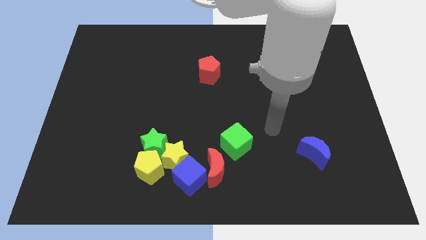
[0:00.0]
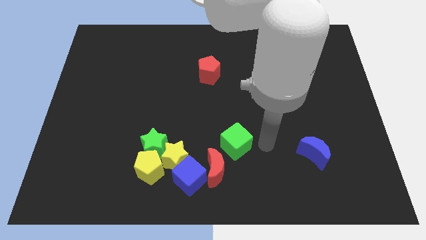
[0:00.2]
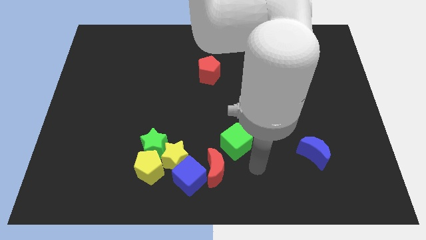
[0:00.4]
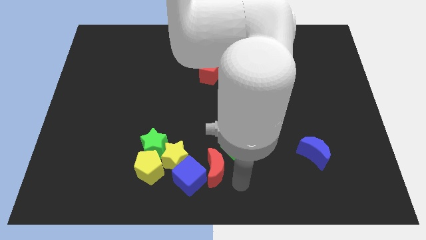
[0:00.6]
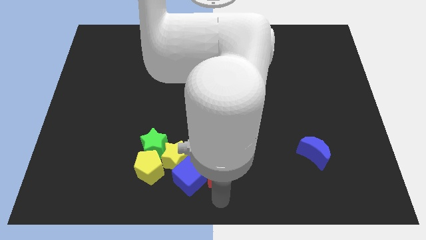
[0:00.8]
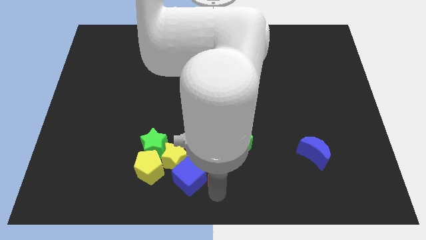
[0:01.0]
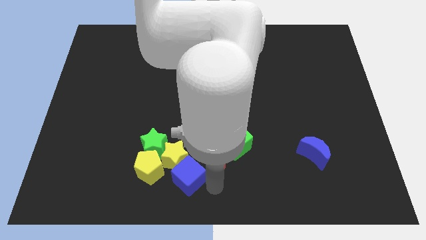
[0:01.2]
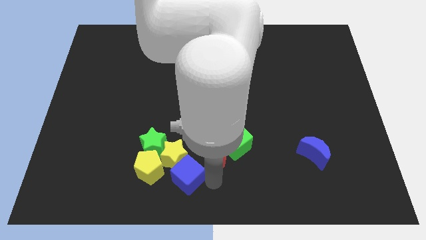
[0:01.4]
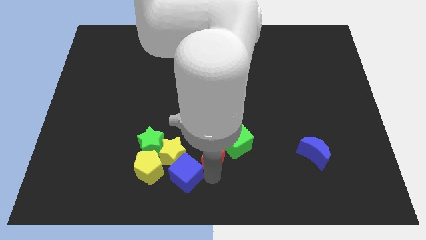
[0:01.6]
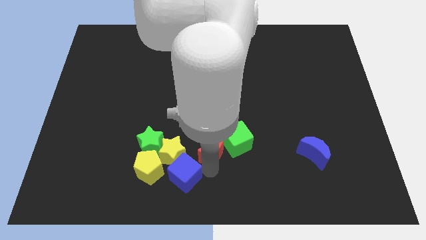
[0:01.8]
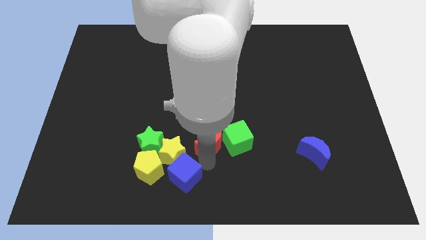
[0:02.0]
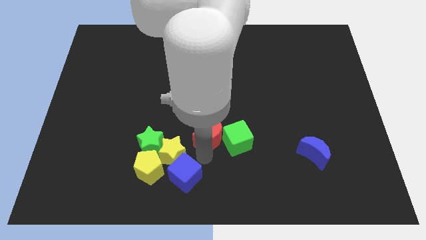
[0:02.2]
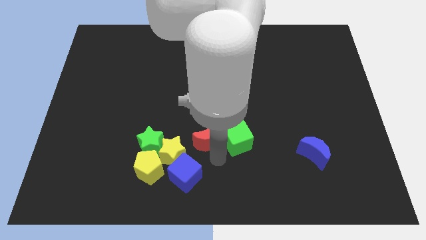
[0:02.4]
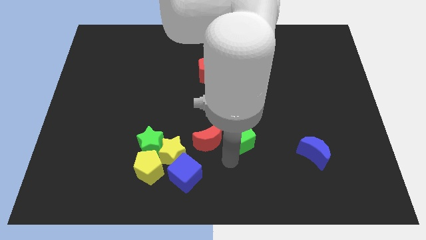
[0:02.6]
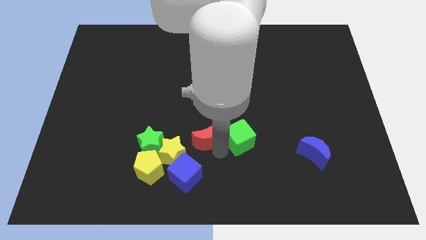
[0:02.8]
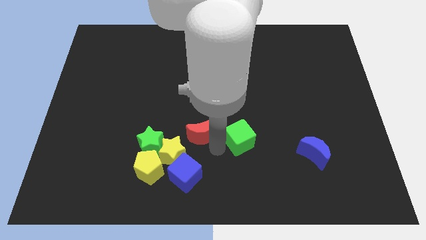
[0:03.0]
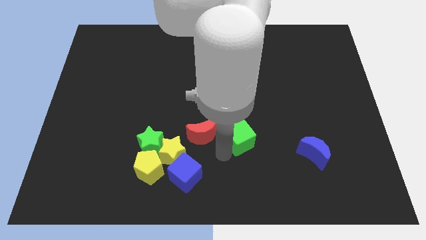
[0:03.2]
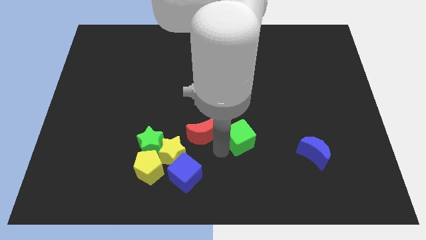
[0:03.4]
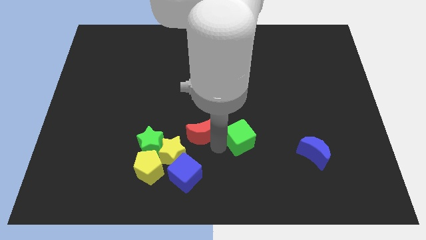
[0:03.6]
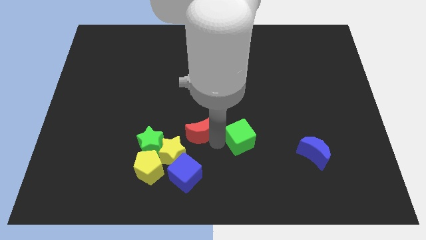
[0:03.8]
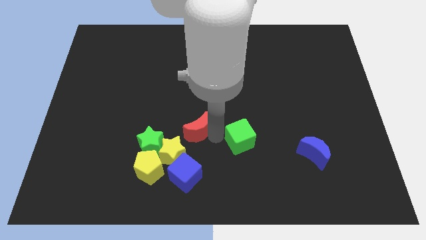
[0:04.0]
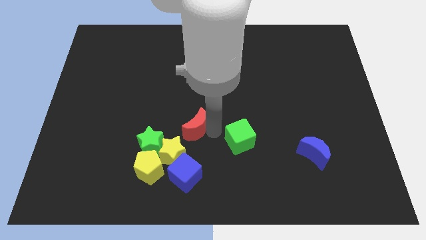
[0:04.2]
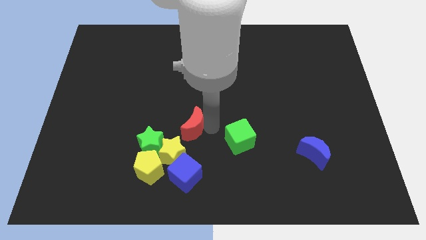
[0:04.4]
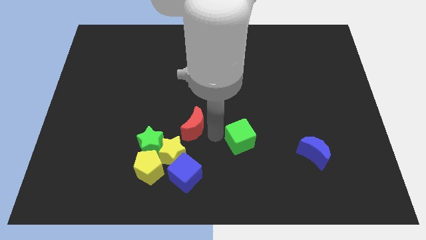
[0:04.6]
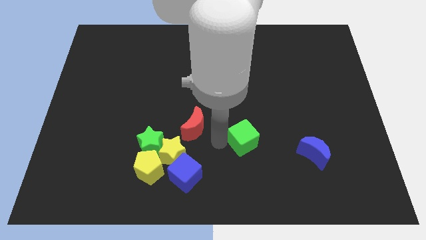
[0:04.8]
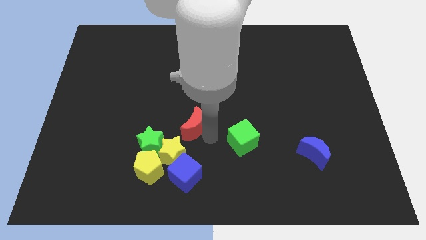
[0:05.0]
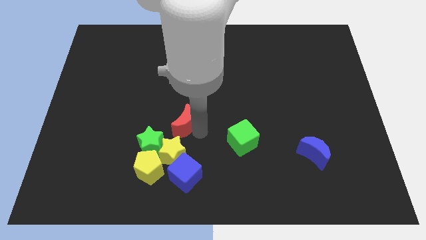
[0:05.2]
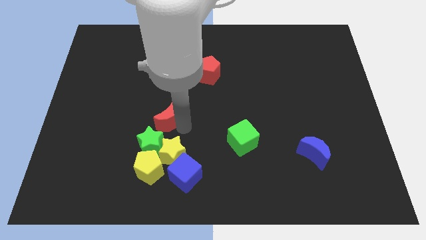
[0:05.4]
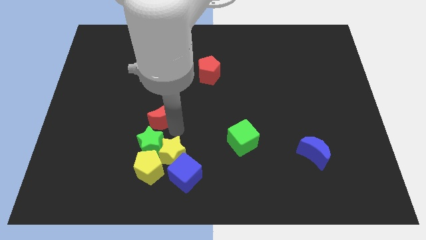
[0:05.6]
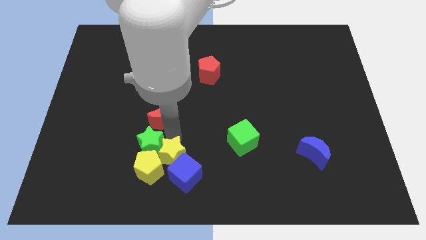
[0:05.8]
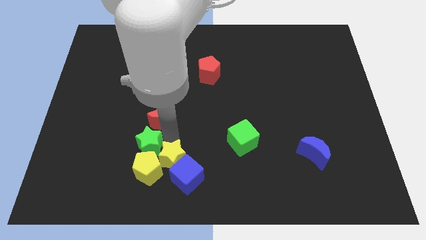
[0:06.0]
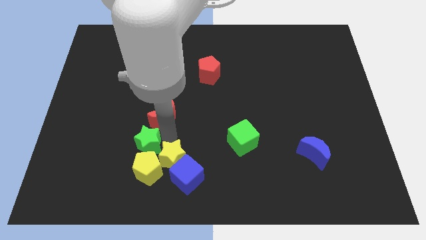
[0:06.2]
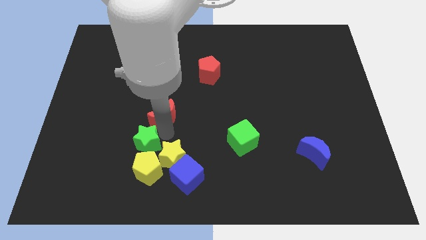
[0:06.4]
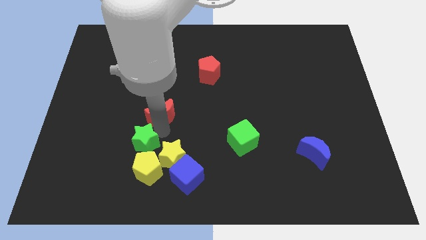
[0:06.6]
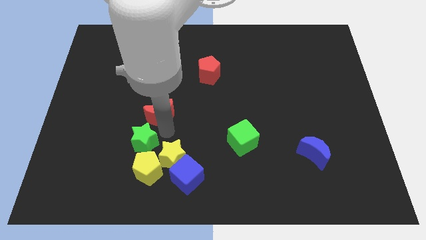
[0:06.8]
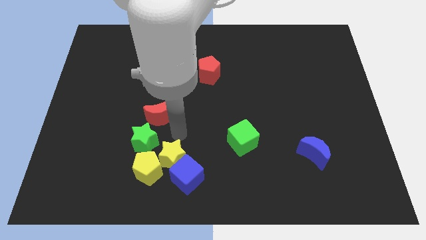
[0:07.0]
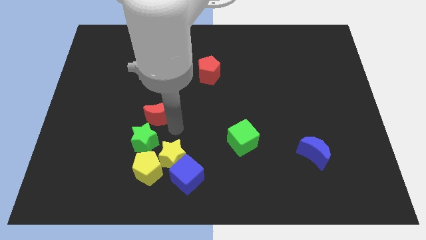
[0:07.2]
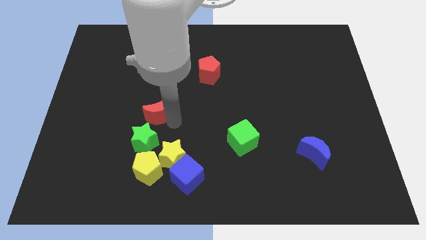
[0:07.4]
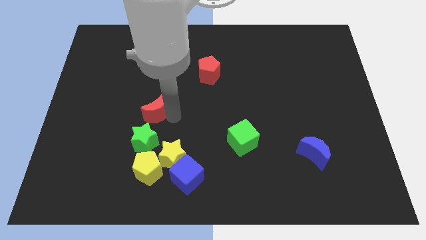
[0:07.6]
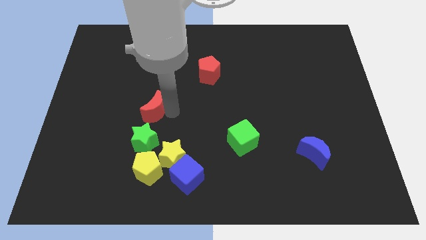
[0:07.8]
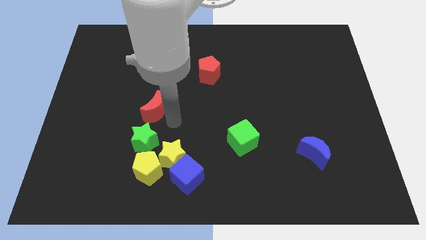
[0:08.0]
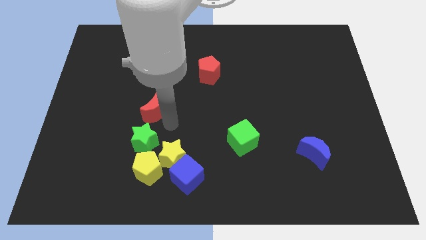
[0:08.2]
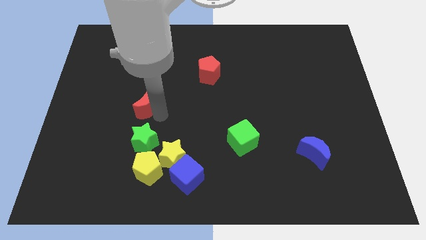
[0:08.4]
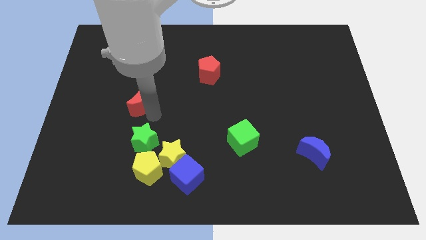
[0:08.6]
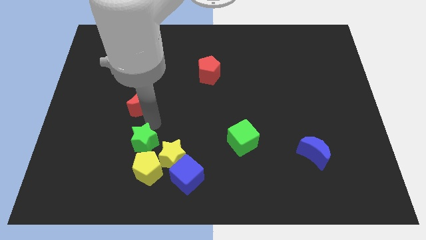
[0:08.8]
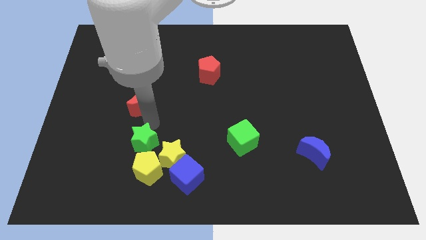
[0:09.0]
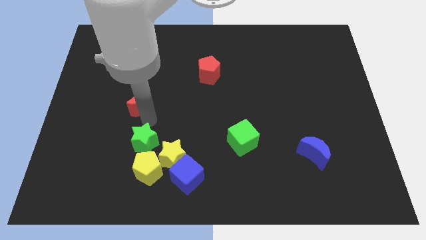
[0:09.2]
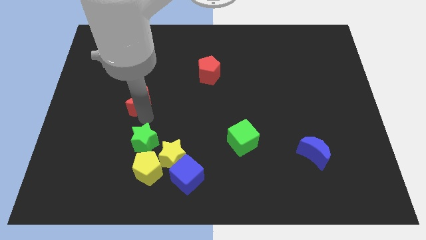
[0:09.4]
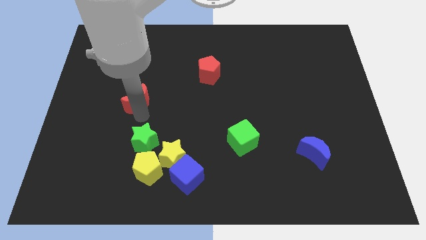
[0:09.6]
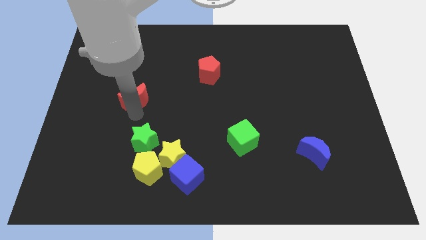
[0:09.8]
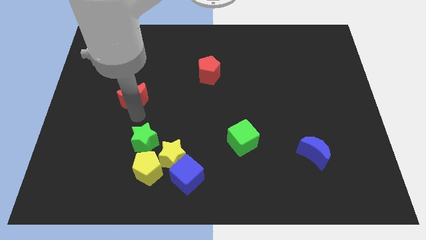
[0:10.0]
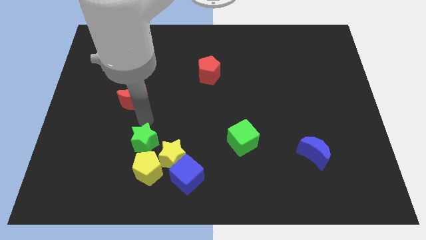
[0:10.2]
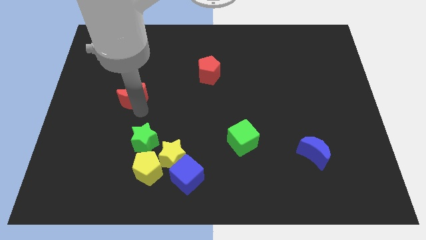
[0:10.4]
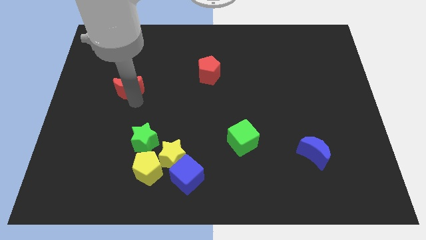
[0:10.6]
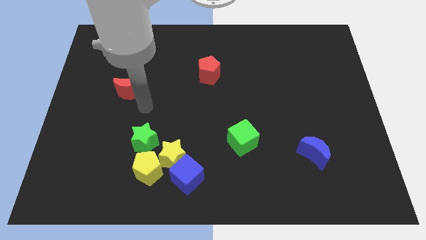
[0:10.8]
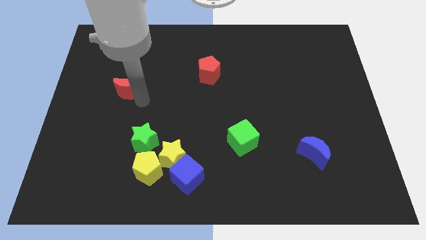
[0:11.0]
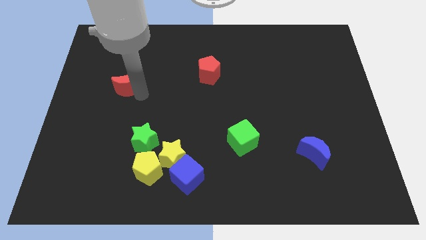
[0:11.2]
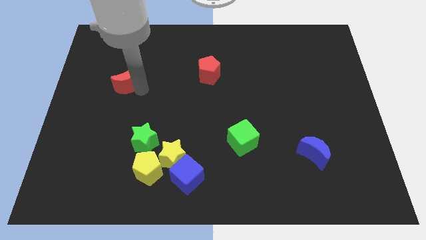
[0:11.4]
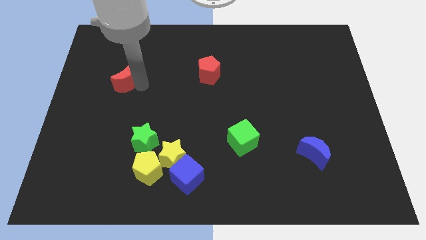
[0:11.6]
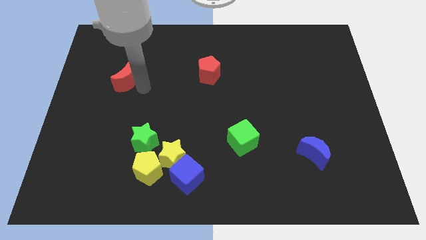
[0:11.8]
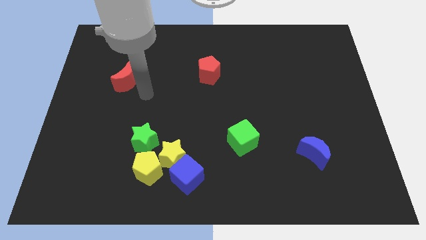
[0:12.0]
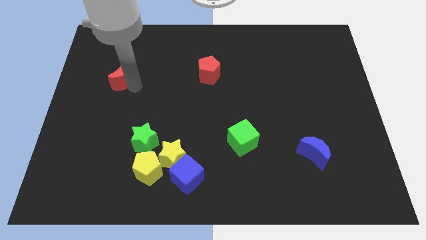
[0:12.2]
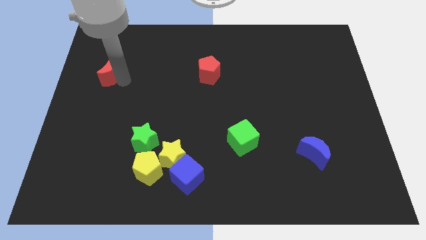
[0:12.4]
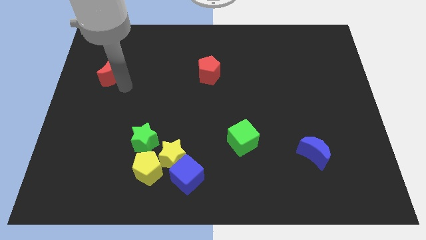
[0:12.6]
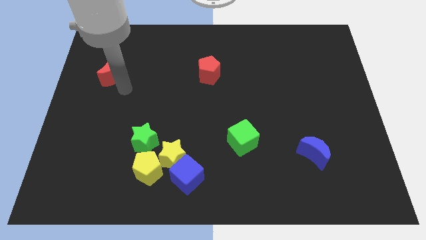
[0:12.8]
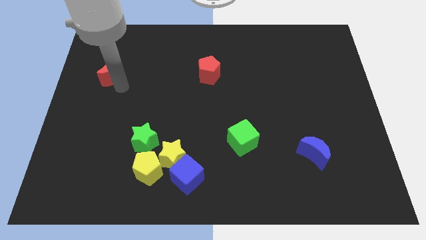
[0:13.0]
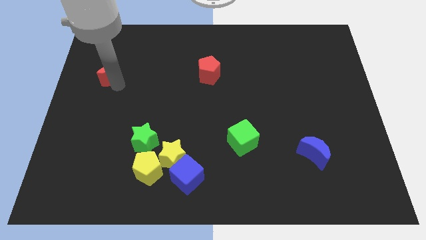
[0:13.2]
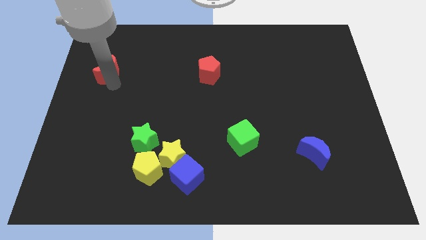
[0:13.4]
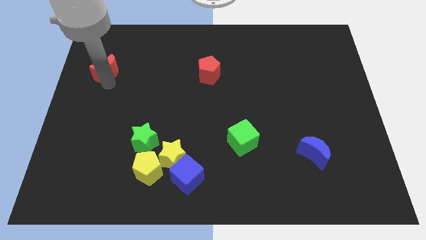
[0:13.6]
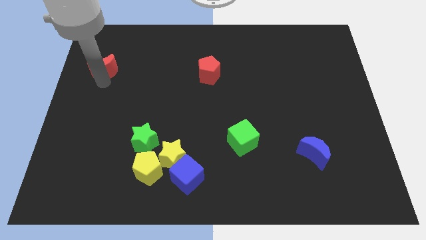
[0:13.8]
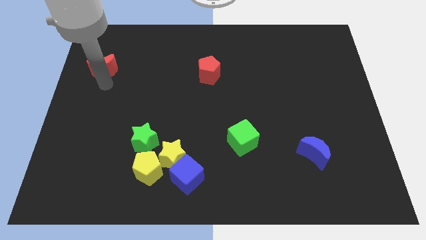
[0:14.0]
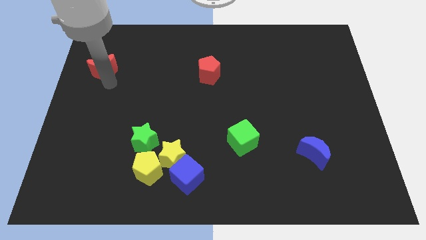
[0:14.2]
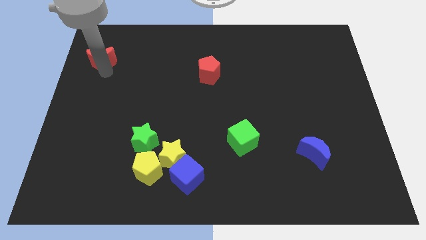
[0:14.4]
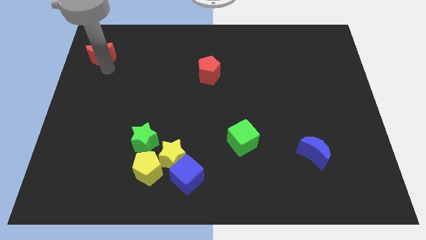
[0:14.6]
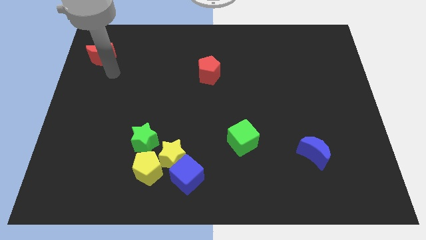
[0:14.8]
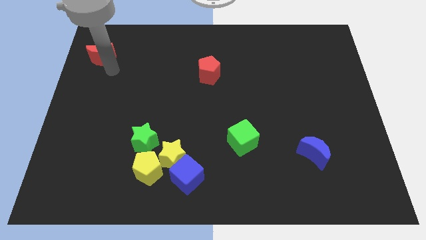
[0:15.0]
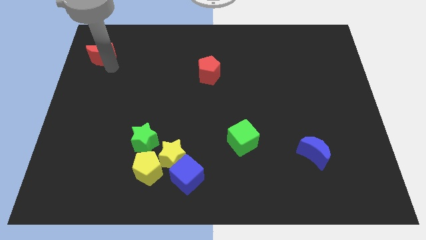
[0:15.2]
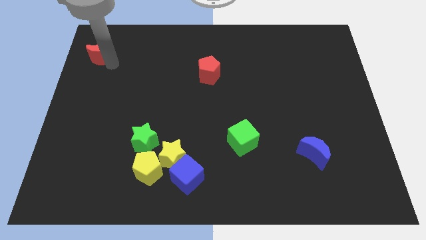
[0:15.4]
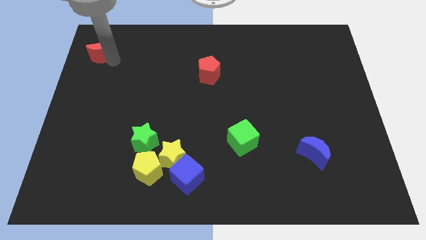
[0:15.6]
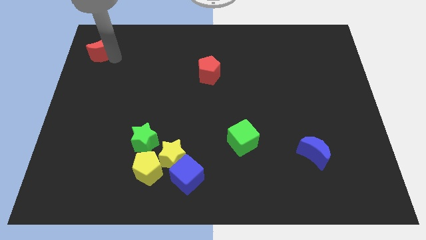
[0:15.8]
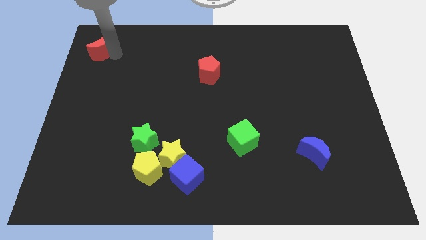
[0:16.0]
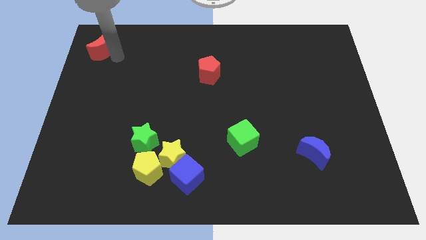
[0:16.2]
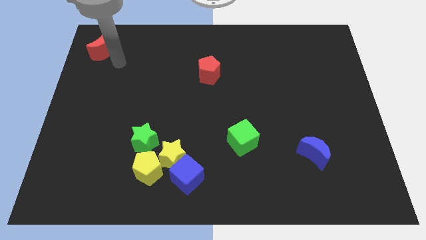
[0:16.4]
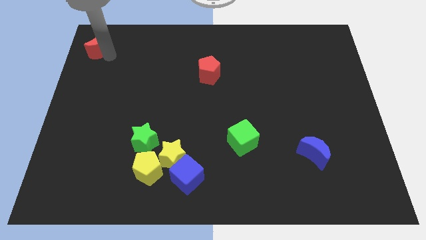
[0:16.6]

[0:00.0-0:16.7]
put the red moon to the upper left corner
